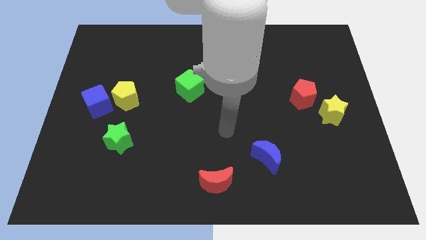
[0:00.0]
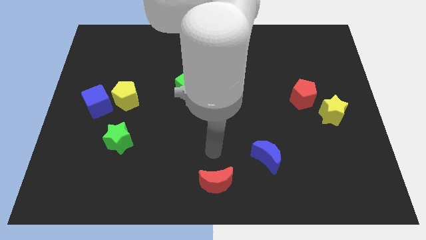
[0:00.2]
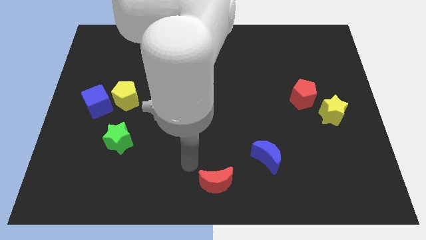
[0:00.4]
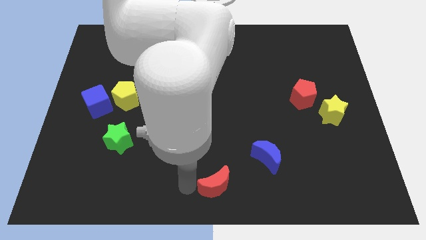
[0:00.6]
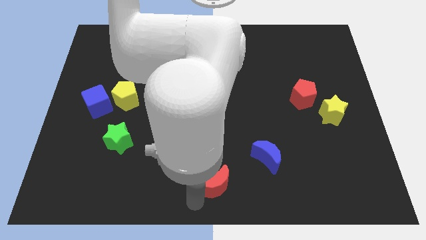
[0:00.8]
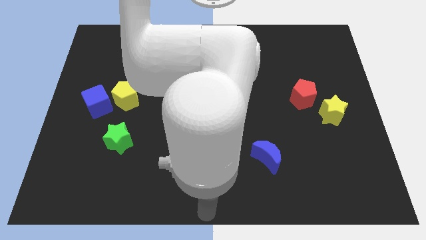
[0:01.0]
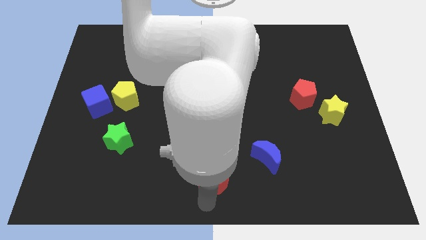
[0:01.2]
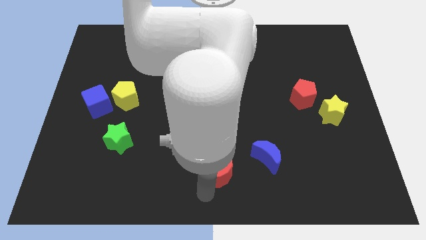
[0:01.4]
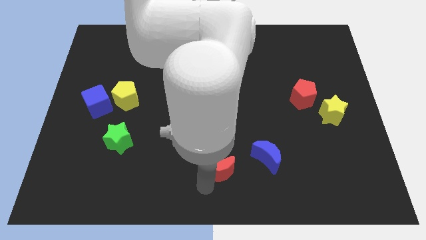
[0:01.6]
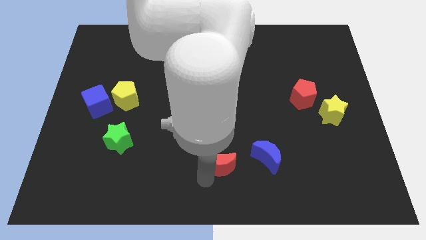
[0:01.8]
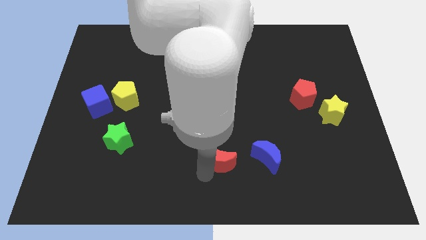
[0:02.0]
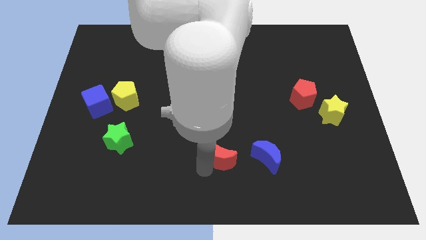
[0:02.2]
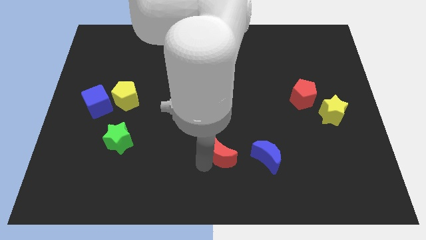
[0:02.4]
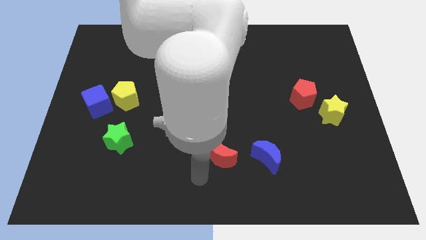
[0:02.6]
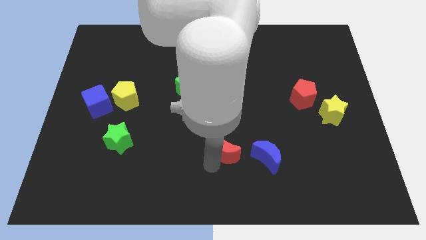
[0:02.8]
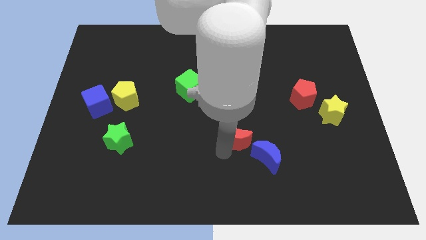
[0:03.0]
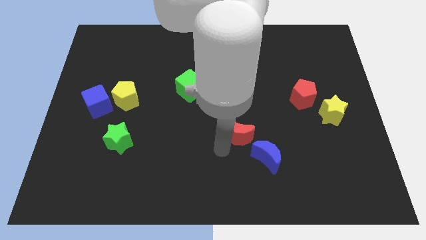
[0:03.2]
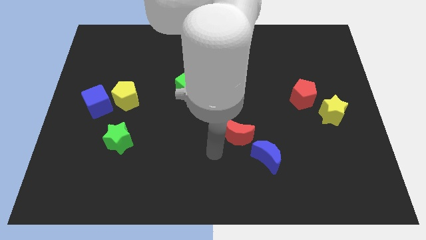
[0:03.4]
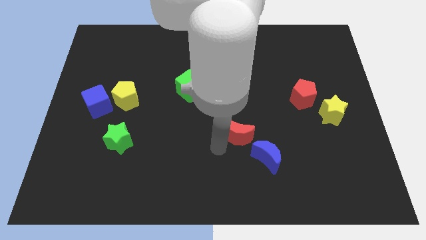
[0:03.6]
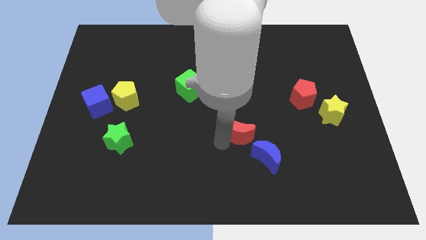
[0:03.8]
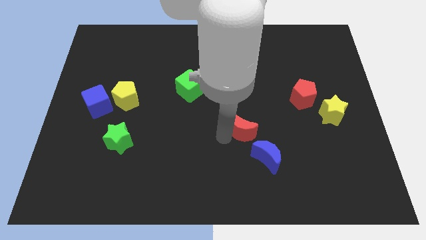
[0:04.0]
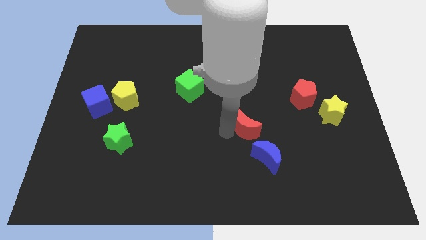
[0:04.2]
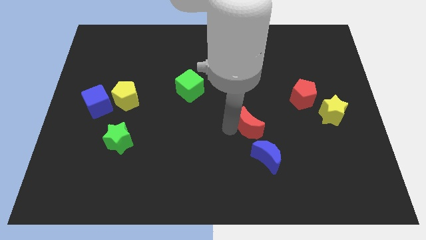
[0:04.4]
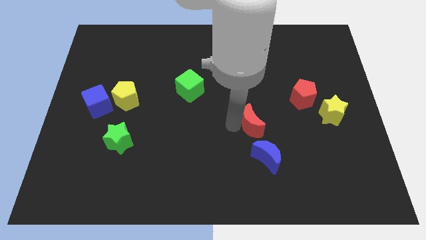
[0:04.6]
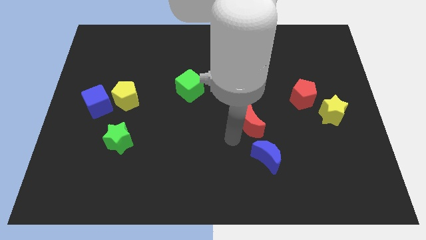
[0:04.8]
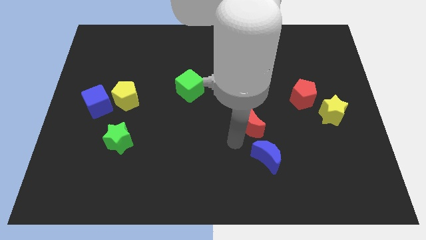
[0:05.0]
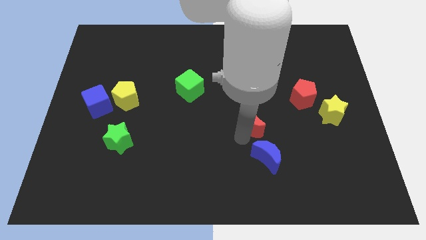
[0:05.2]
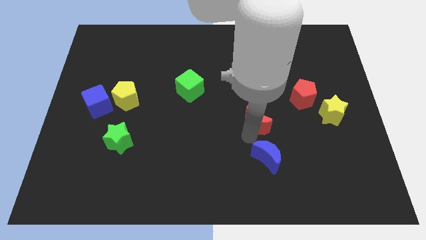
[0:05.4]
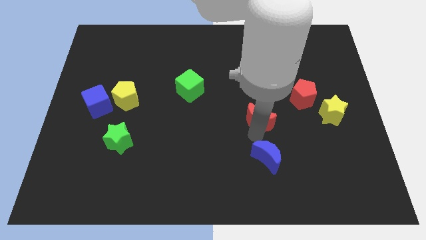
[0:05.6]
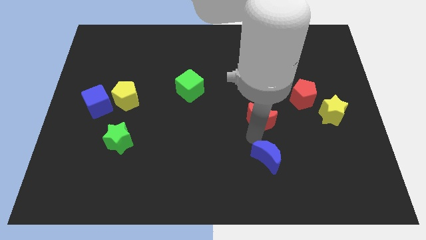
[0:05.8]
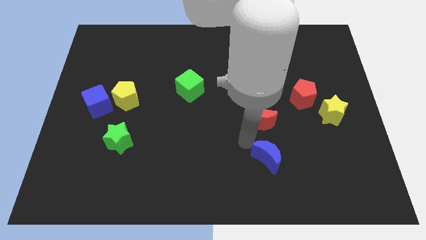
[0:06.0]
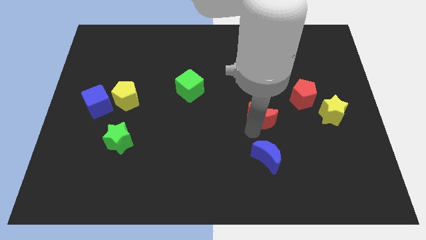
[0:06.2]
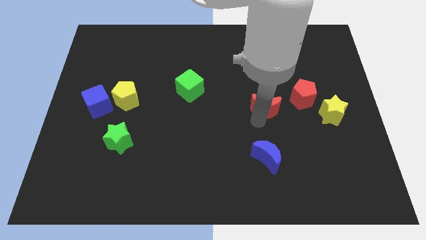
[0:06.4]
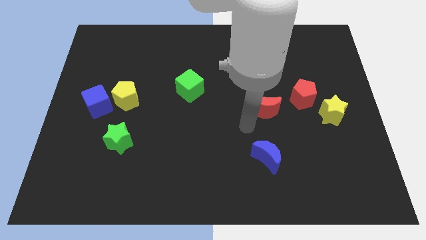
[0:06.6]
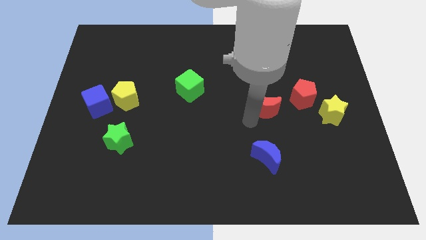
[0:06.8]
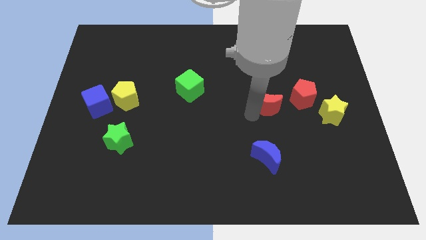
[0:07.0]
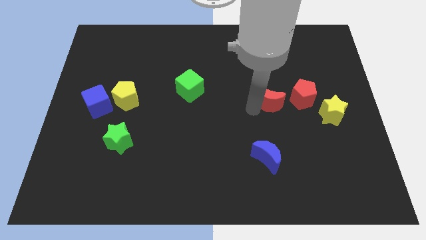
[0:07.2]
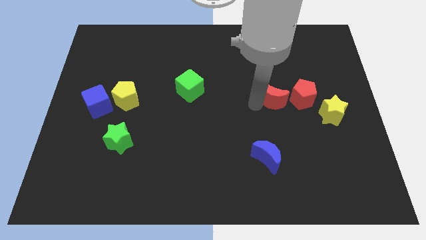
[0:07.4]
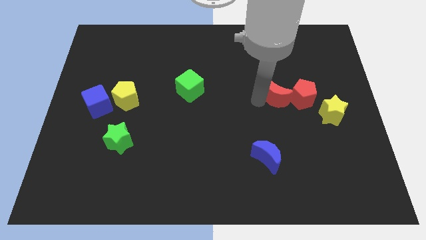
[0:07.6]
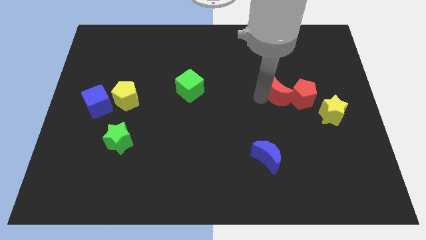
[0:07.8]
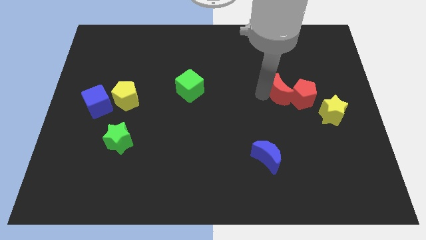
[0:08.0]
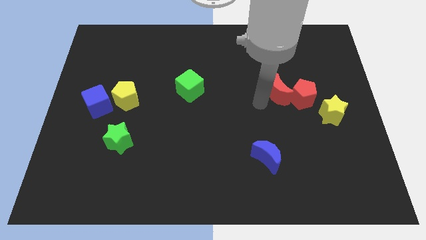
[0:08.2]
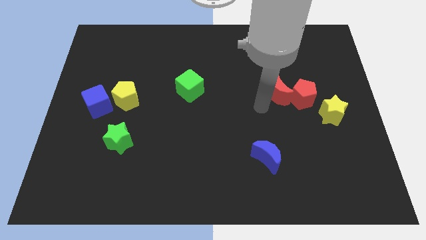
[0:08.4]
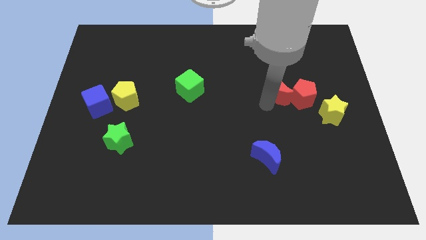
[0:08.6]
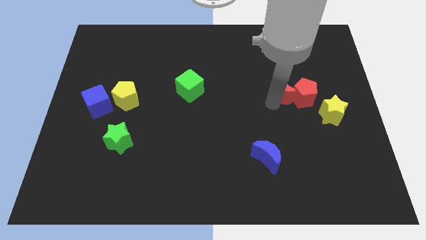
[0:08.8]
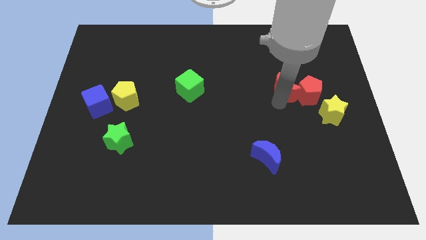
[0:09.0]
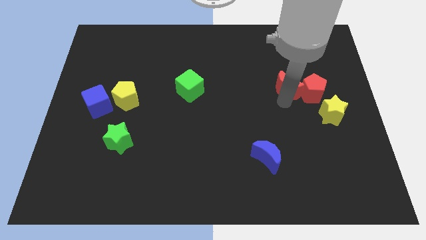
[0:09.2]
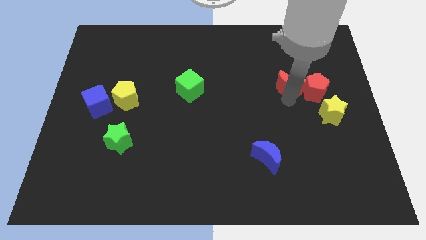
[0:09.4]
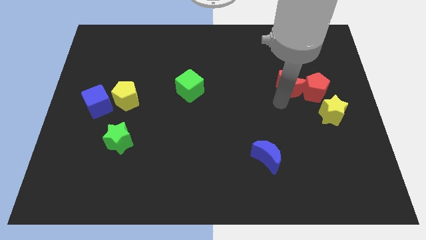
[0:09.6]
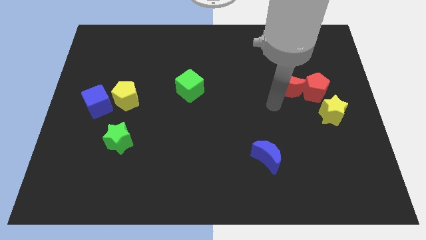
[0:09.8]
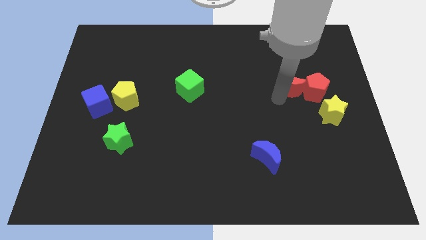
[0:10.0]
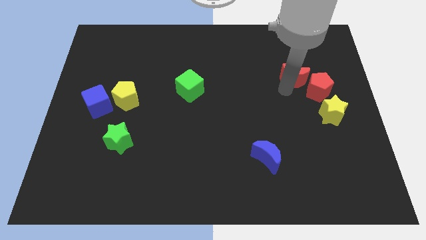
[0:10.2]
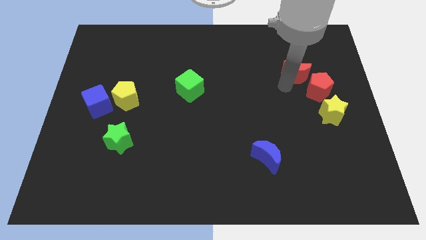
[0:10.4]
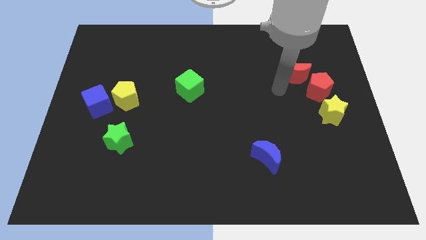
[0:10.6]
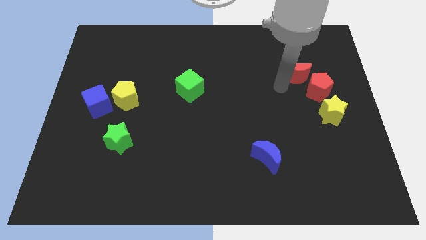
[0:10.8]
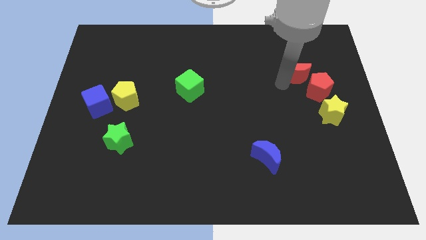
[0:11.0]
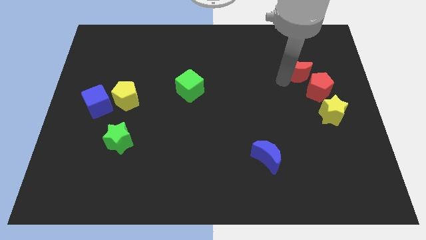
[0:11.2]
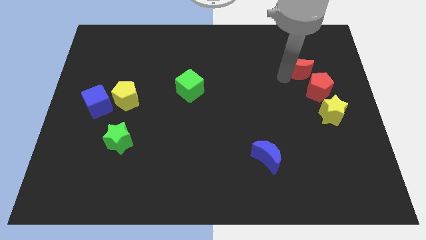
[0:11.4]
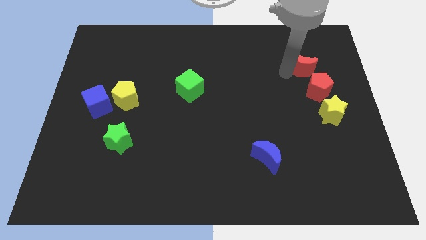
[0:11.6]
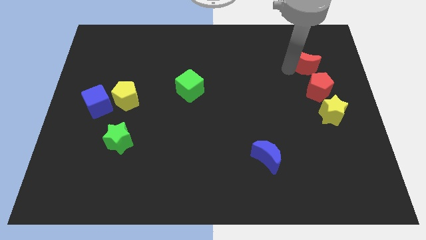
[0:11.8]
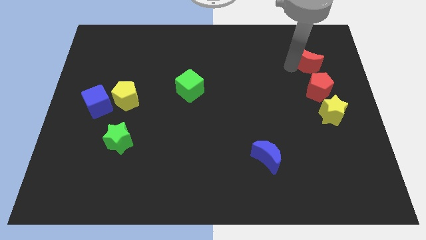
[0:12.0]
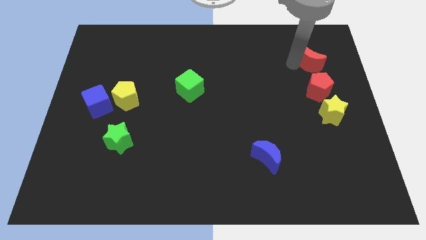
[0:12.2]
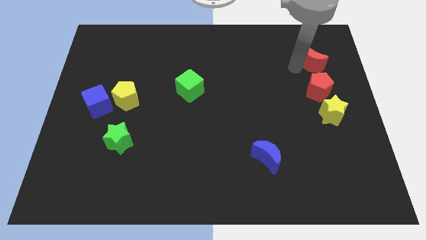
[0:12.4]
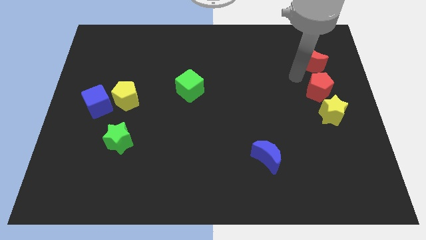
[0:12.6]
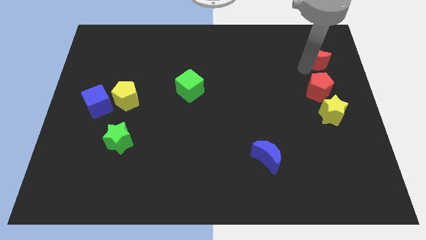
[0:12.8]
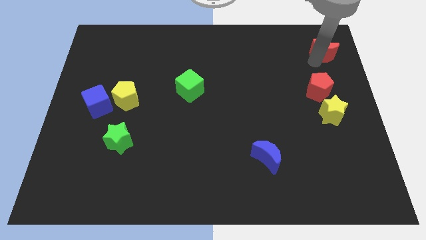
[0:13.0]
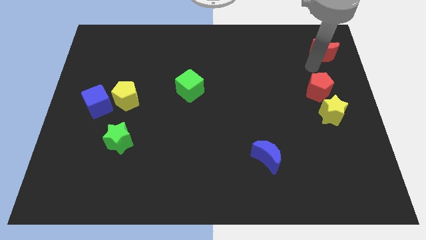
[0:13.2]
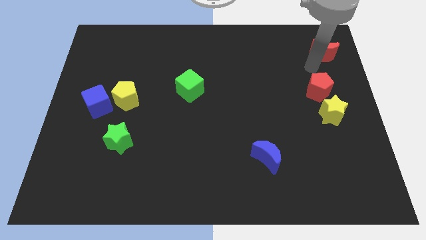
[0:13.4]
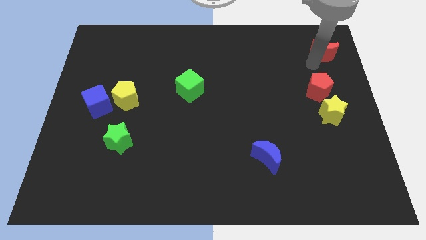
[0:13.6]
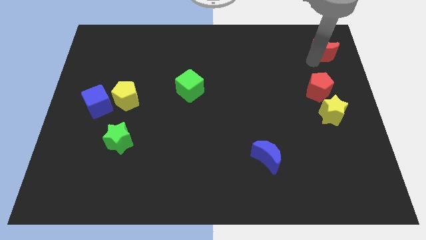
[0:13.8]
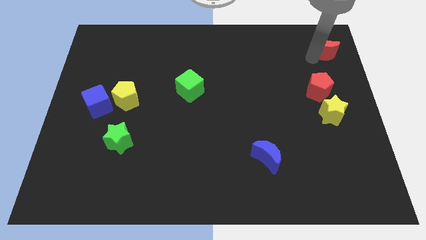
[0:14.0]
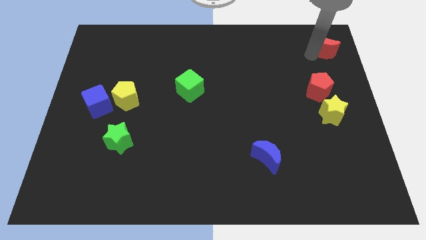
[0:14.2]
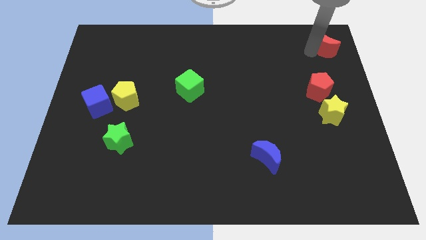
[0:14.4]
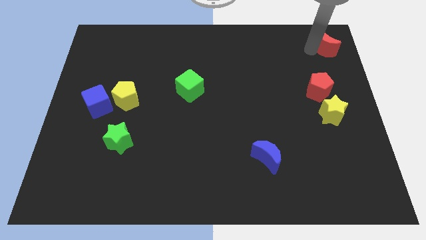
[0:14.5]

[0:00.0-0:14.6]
slide the red moon to the top right
